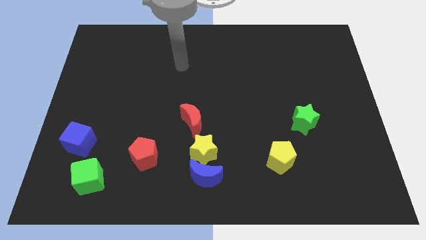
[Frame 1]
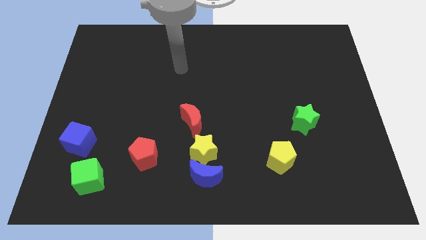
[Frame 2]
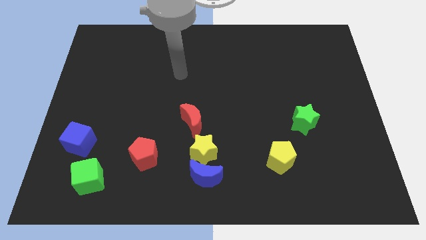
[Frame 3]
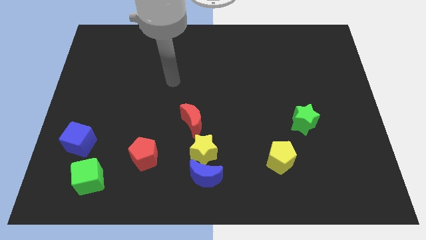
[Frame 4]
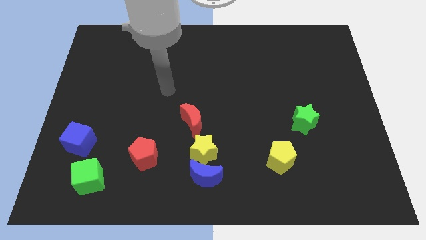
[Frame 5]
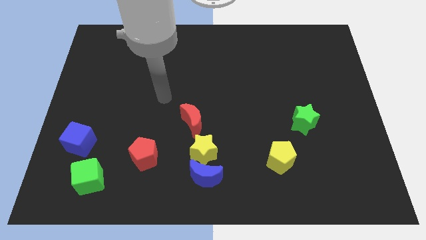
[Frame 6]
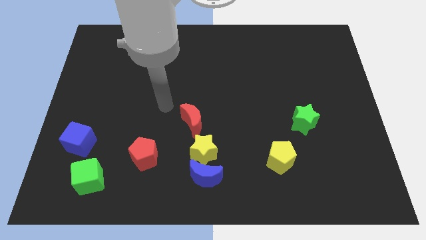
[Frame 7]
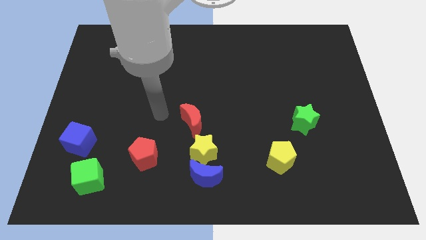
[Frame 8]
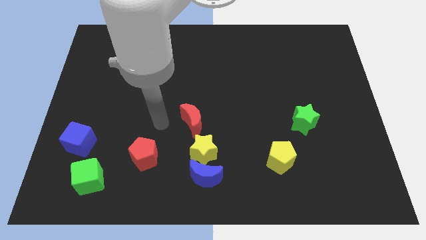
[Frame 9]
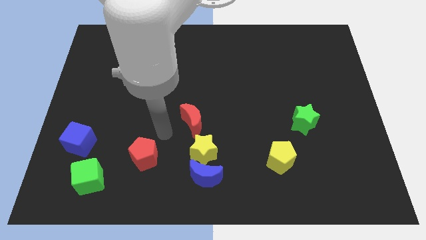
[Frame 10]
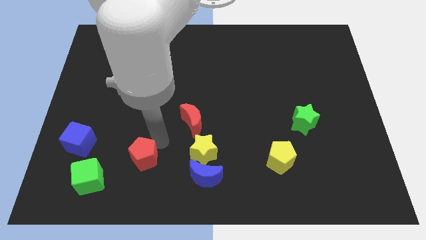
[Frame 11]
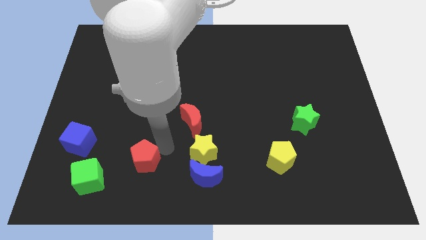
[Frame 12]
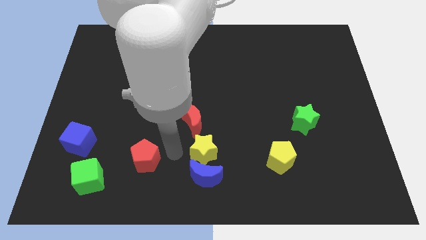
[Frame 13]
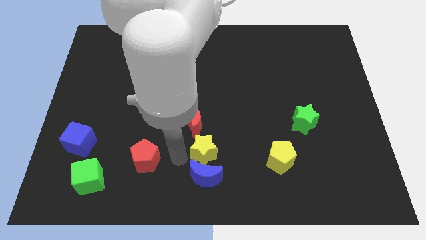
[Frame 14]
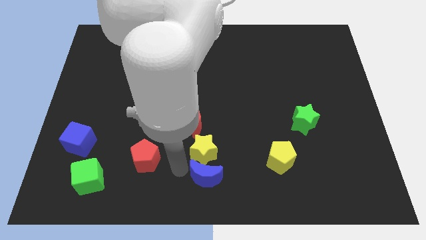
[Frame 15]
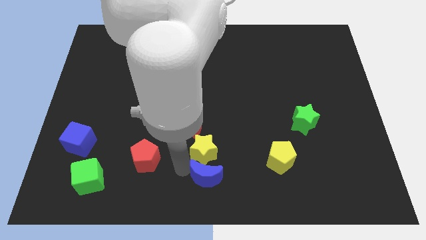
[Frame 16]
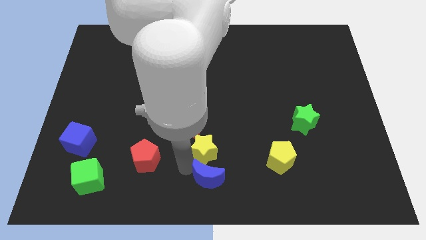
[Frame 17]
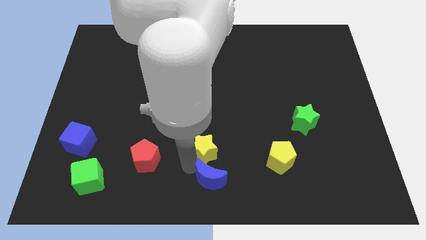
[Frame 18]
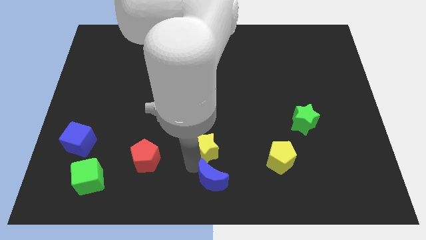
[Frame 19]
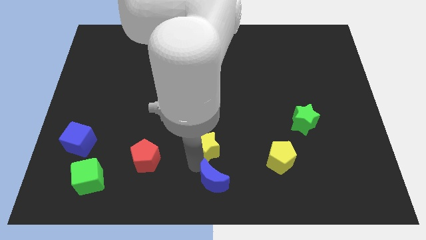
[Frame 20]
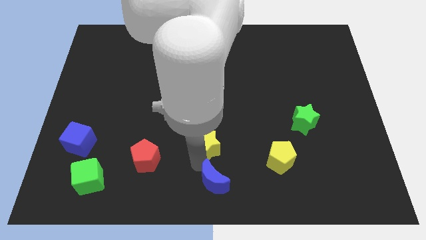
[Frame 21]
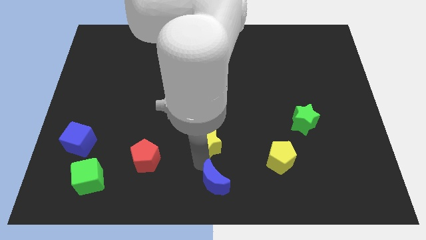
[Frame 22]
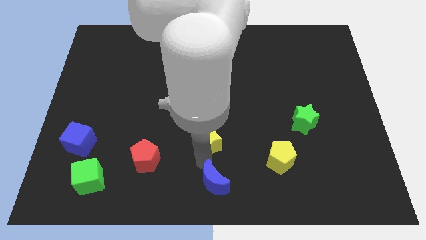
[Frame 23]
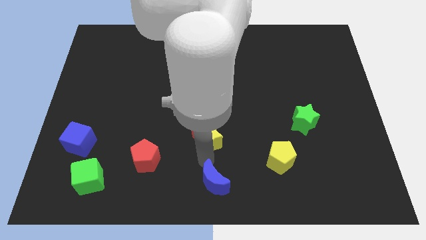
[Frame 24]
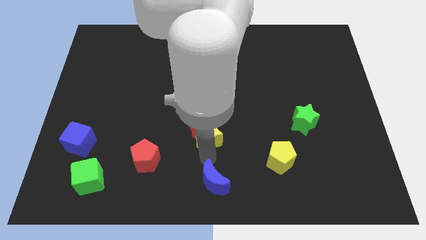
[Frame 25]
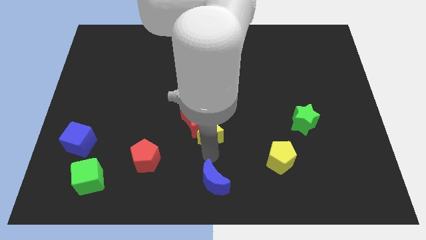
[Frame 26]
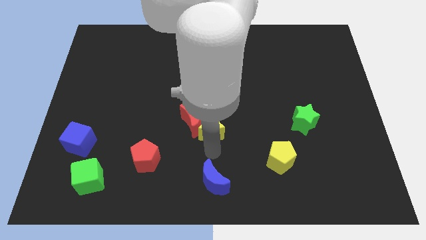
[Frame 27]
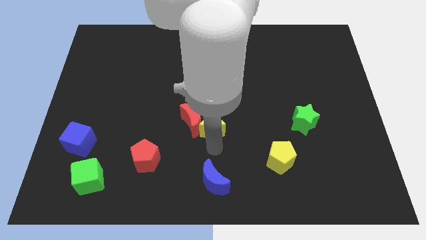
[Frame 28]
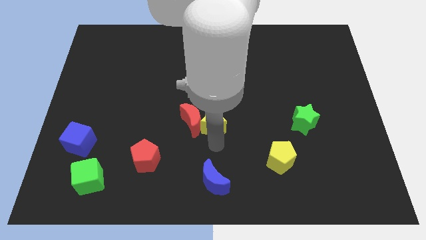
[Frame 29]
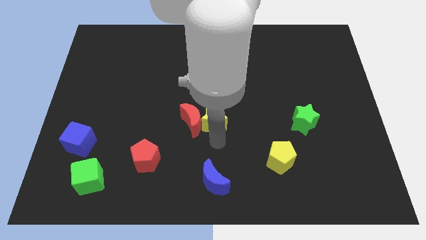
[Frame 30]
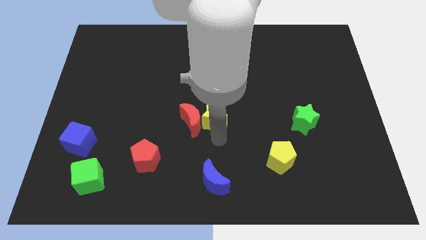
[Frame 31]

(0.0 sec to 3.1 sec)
slightly slide the yellow star diagonally upwards and right

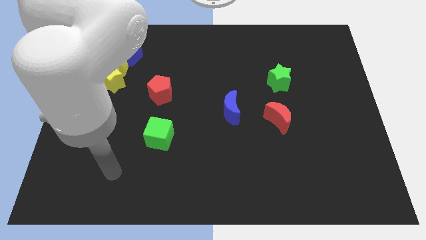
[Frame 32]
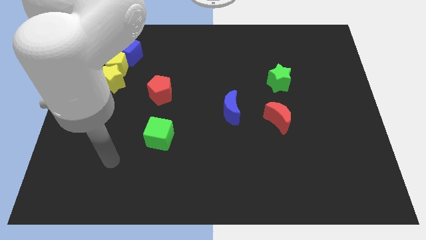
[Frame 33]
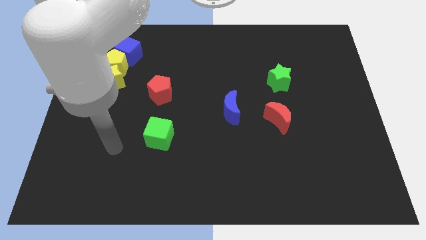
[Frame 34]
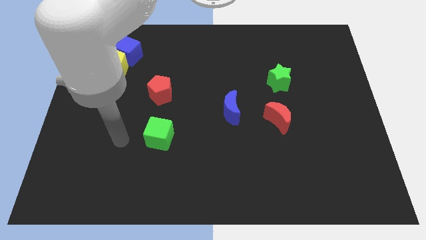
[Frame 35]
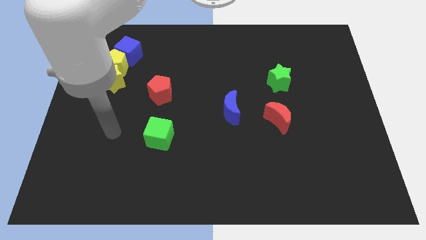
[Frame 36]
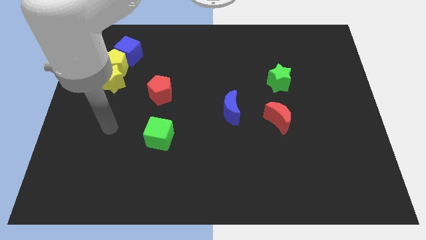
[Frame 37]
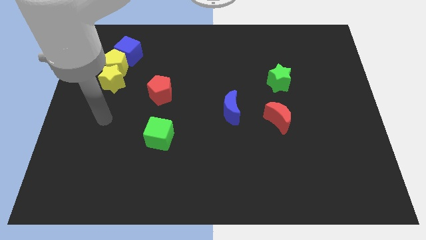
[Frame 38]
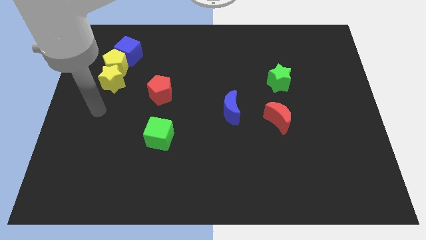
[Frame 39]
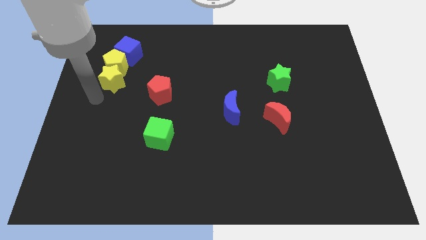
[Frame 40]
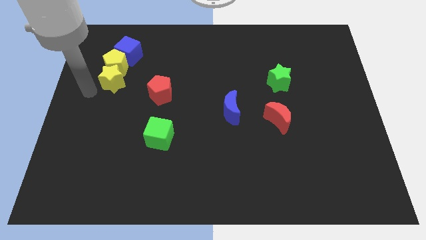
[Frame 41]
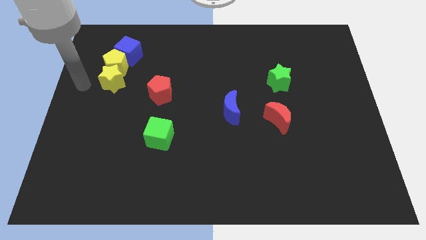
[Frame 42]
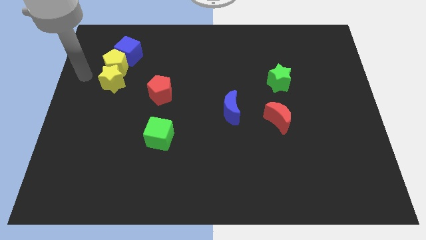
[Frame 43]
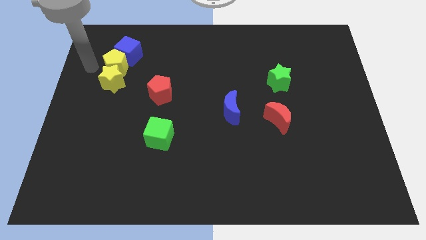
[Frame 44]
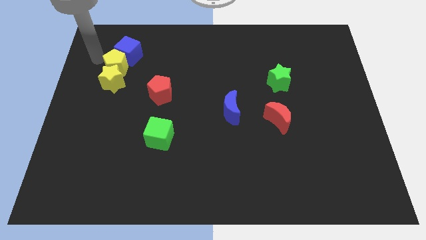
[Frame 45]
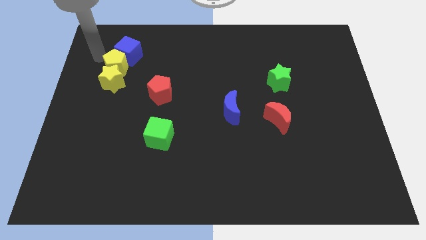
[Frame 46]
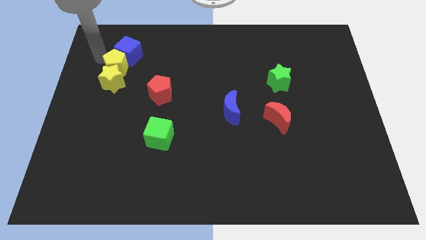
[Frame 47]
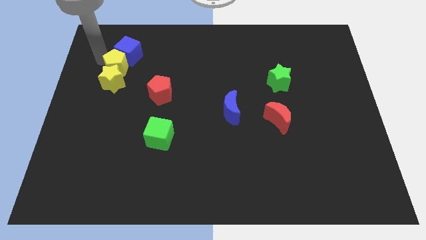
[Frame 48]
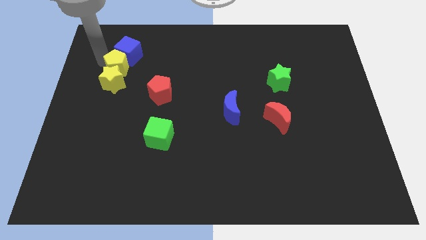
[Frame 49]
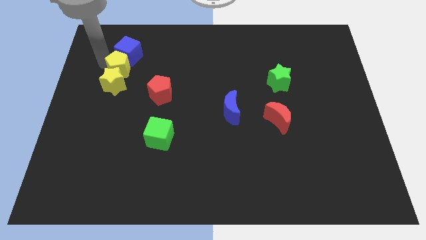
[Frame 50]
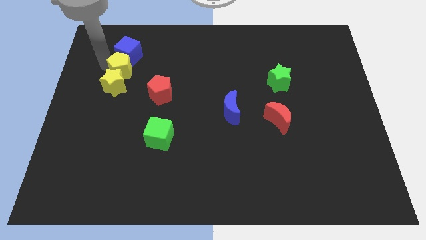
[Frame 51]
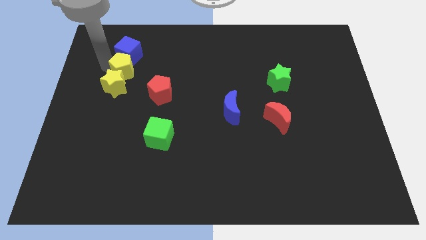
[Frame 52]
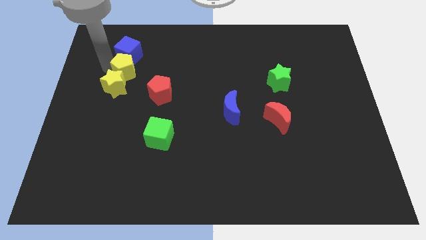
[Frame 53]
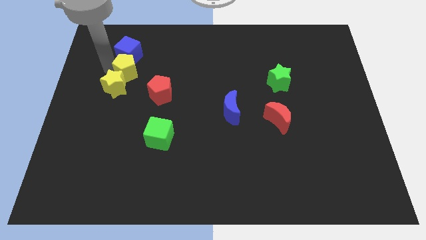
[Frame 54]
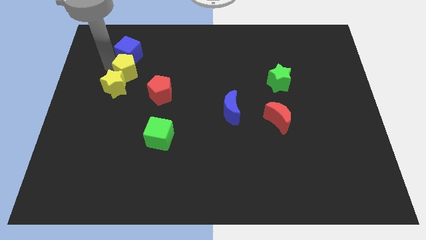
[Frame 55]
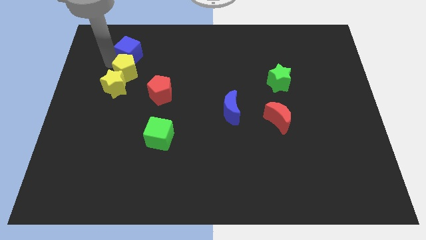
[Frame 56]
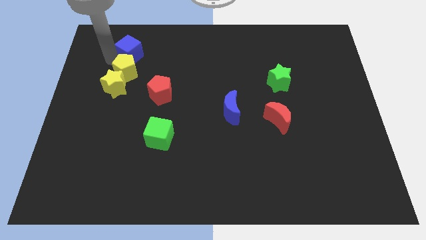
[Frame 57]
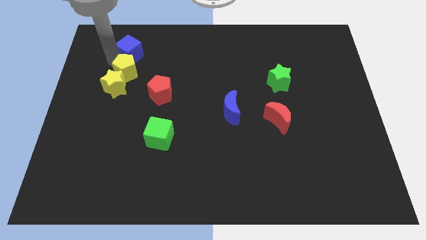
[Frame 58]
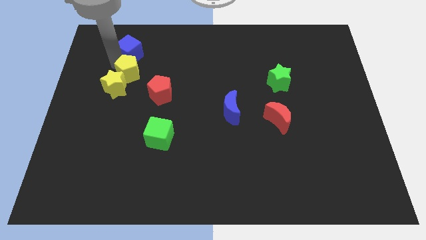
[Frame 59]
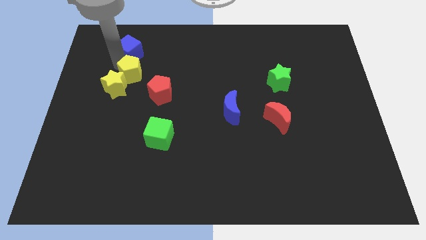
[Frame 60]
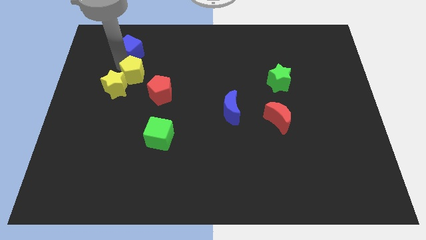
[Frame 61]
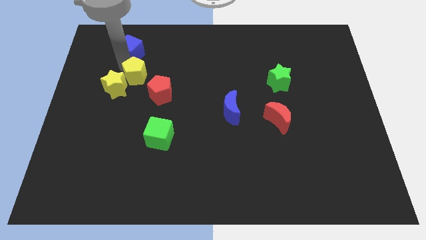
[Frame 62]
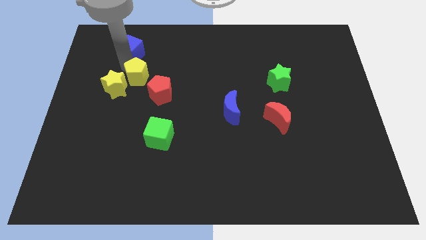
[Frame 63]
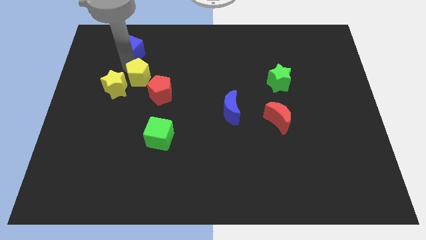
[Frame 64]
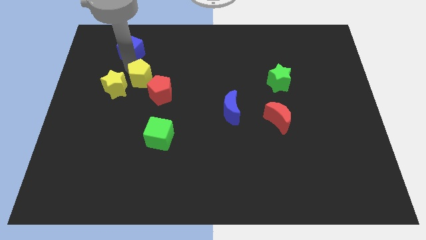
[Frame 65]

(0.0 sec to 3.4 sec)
slightly push the yellow pentagon diagonally downwards and right

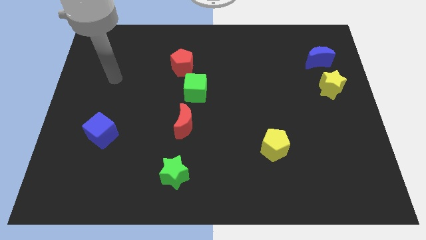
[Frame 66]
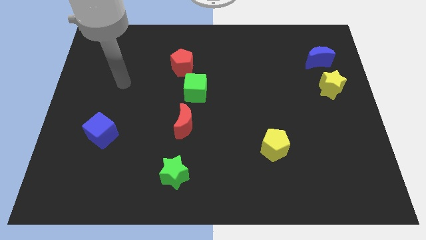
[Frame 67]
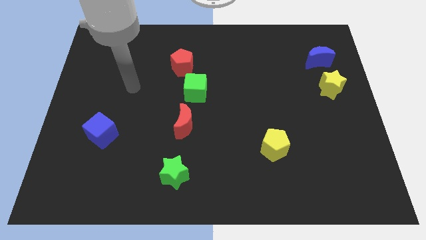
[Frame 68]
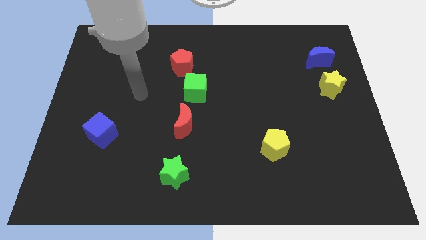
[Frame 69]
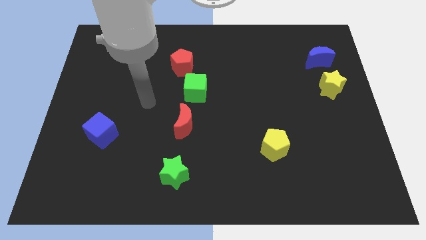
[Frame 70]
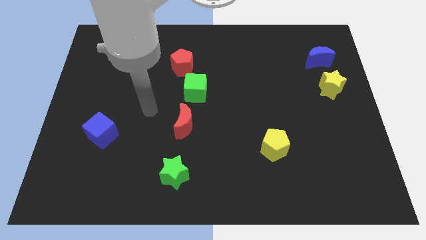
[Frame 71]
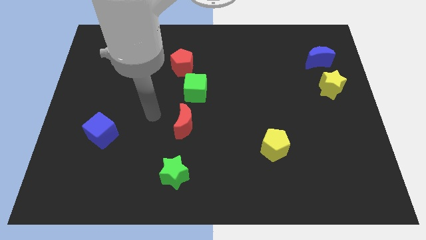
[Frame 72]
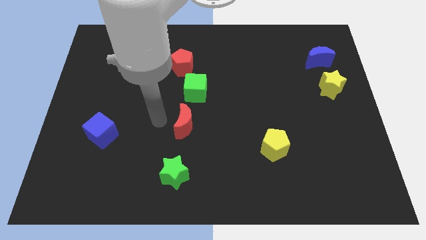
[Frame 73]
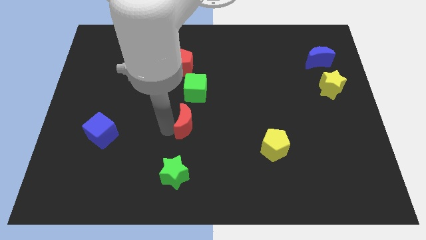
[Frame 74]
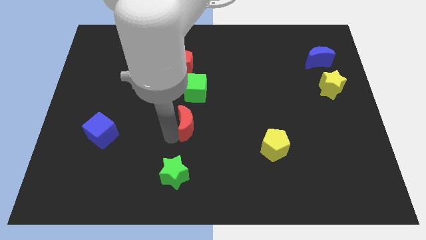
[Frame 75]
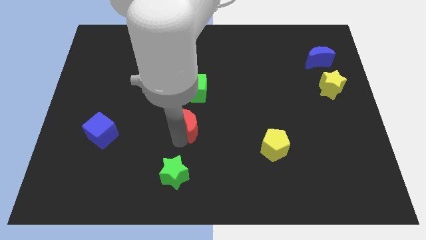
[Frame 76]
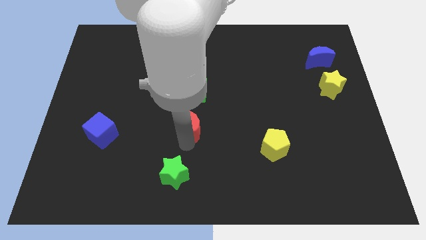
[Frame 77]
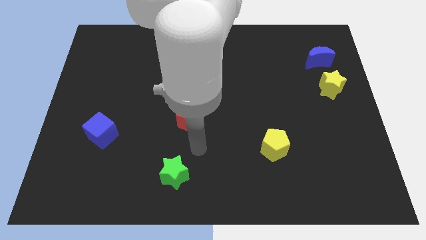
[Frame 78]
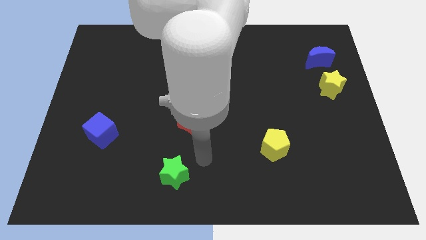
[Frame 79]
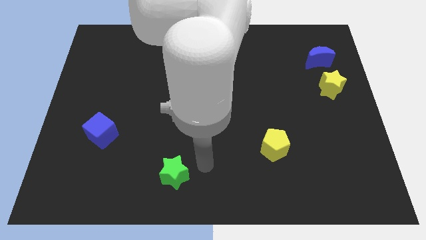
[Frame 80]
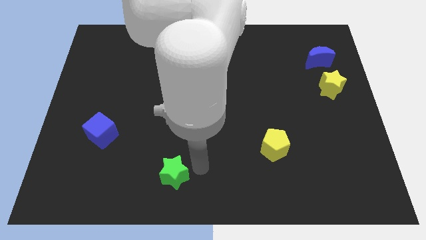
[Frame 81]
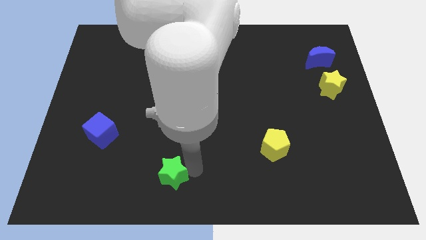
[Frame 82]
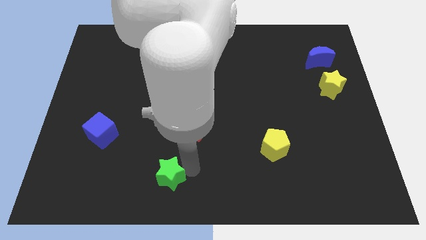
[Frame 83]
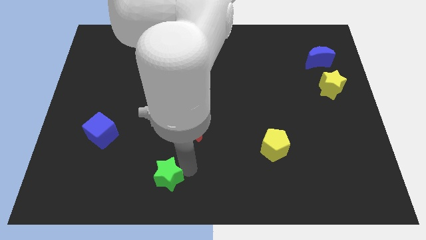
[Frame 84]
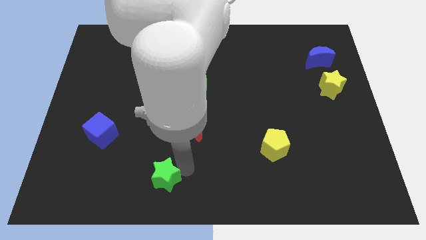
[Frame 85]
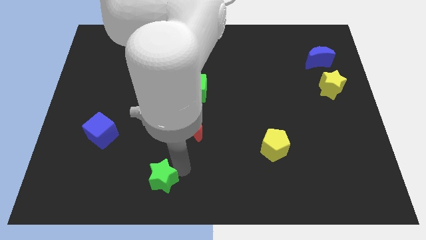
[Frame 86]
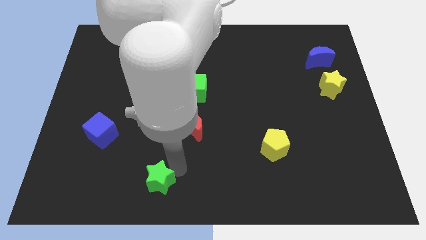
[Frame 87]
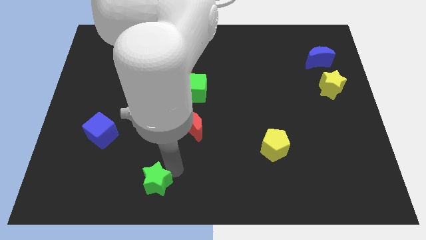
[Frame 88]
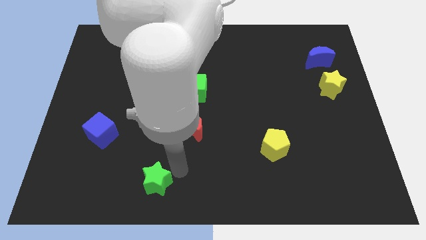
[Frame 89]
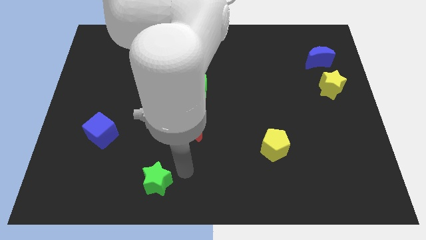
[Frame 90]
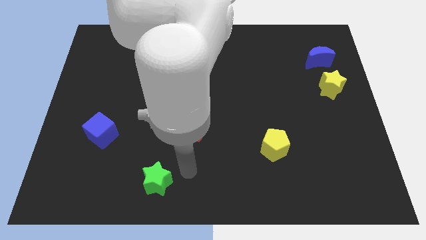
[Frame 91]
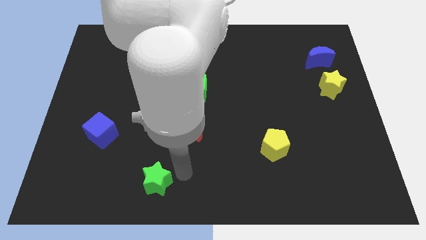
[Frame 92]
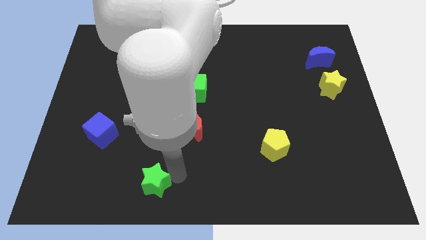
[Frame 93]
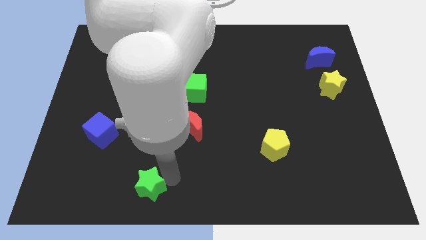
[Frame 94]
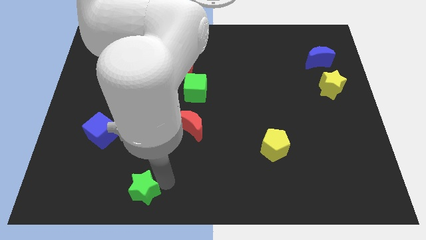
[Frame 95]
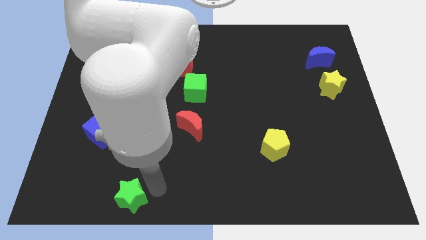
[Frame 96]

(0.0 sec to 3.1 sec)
move the green star a little left
